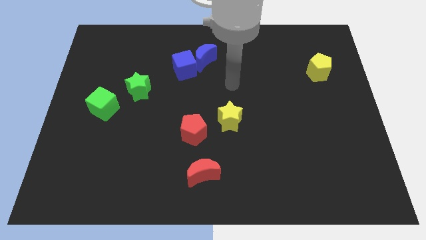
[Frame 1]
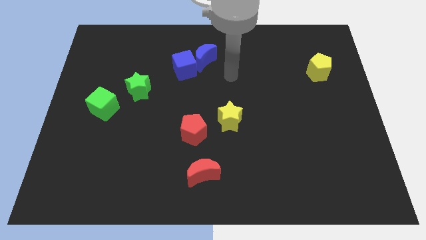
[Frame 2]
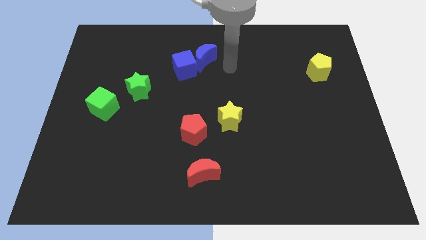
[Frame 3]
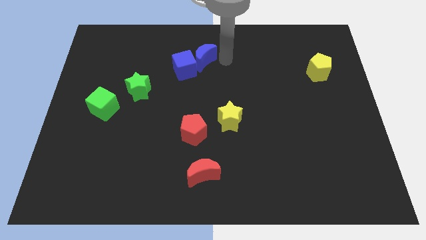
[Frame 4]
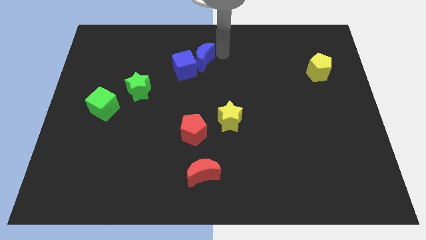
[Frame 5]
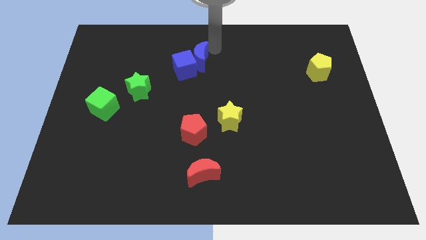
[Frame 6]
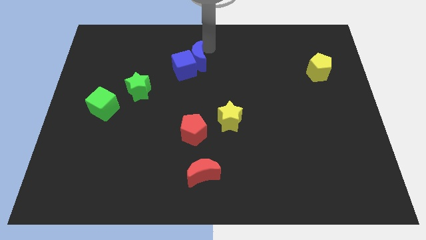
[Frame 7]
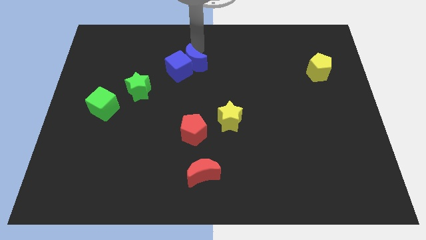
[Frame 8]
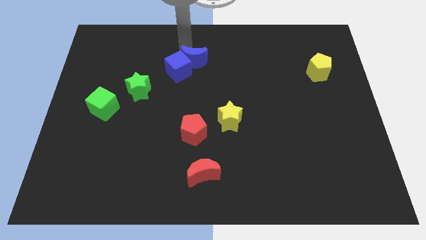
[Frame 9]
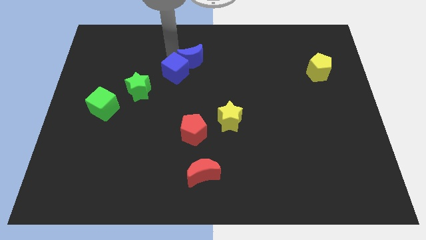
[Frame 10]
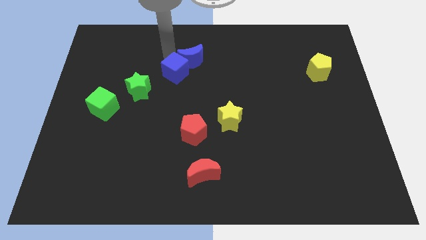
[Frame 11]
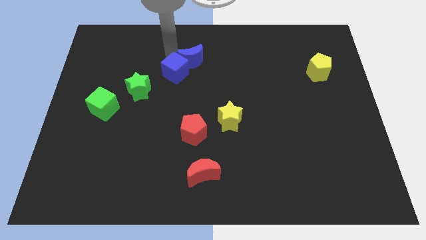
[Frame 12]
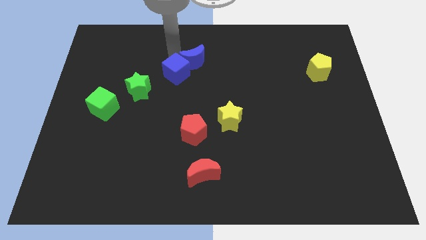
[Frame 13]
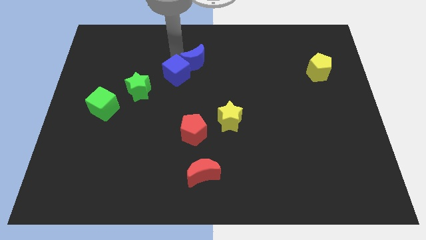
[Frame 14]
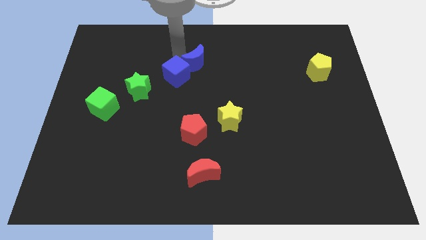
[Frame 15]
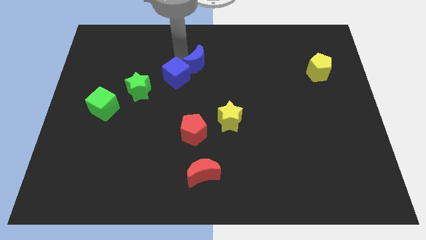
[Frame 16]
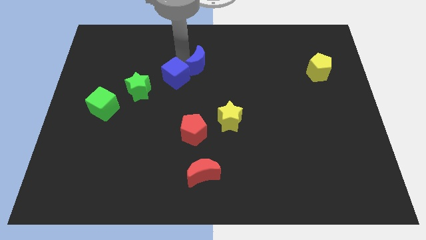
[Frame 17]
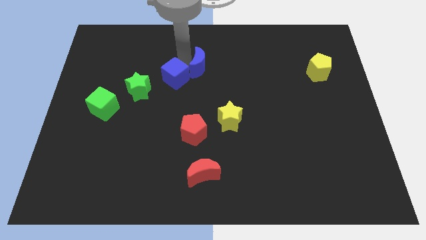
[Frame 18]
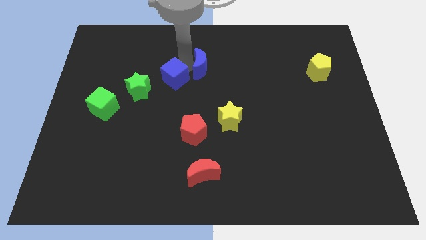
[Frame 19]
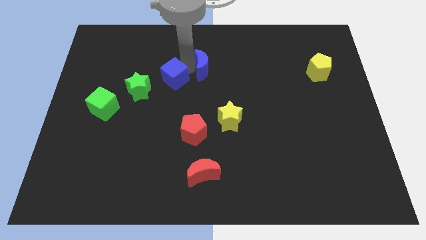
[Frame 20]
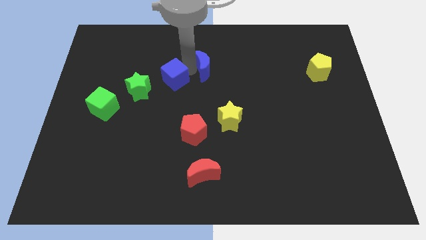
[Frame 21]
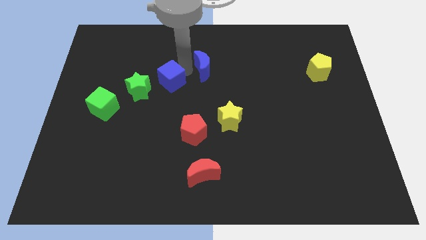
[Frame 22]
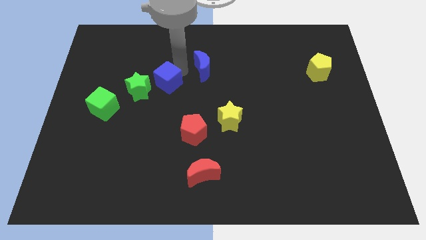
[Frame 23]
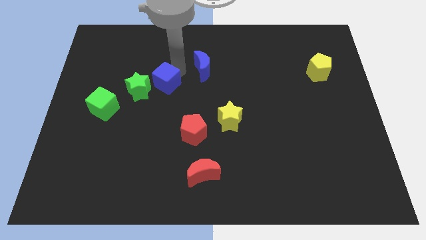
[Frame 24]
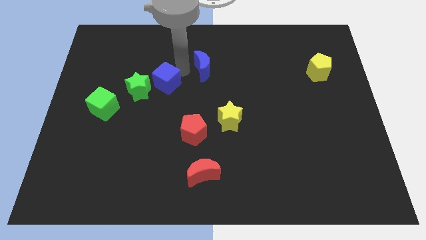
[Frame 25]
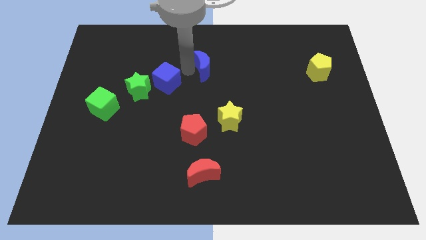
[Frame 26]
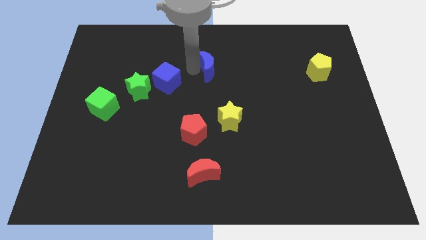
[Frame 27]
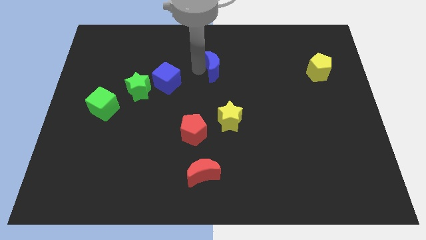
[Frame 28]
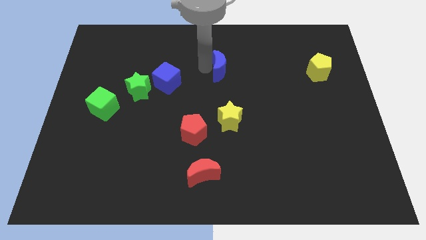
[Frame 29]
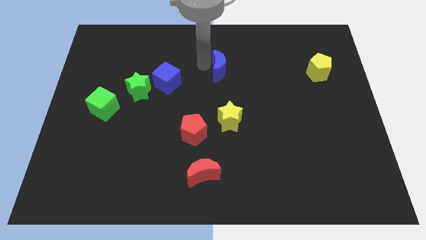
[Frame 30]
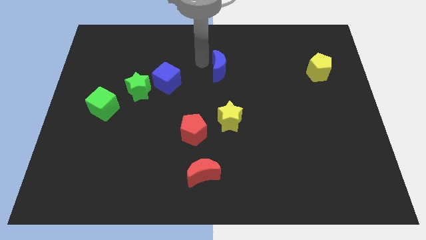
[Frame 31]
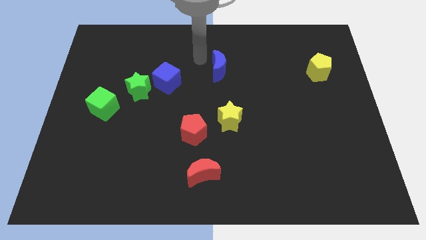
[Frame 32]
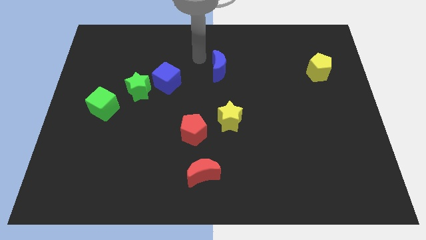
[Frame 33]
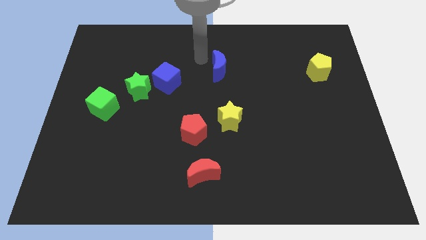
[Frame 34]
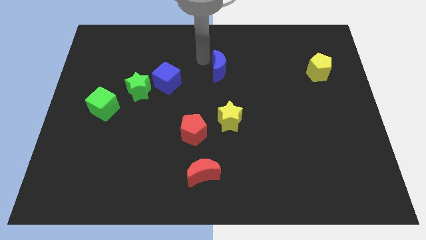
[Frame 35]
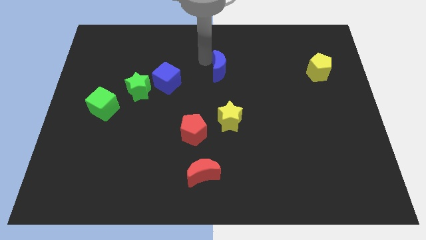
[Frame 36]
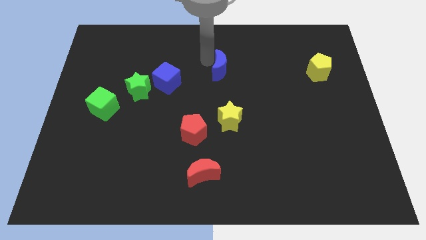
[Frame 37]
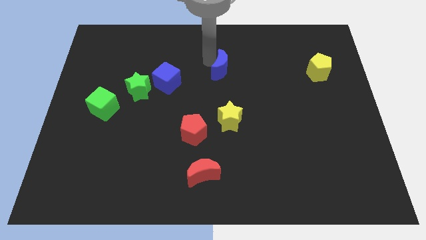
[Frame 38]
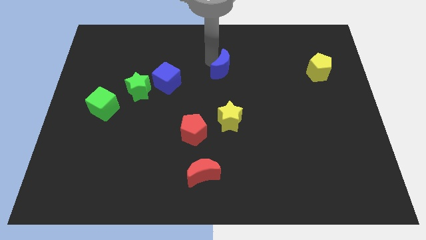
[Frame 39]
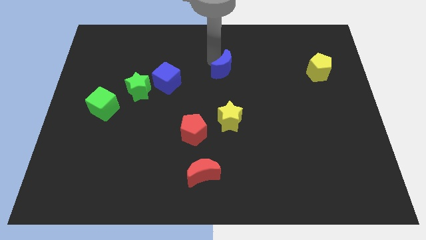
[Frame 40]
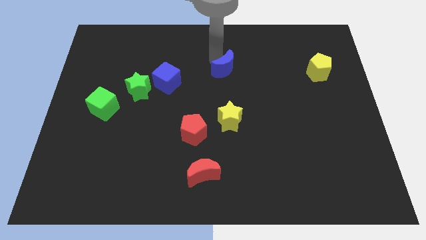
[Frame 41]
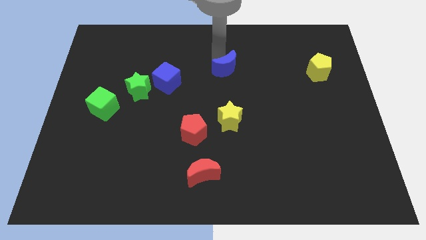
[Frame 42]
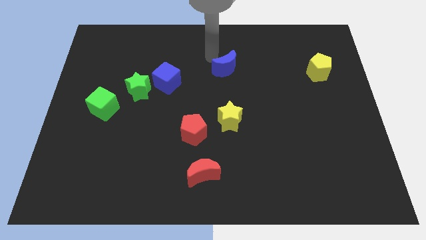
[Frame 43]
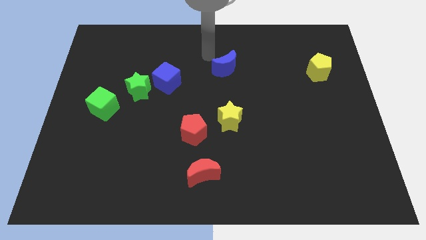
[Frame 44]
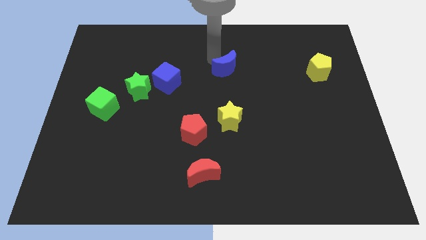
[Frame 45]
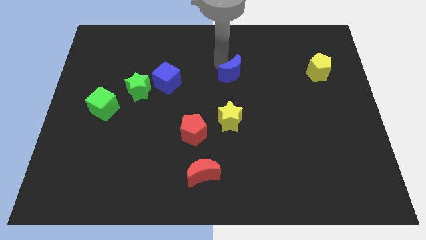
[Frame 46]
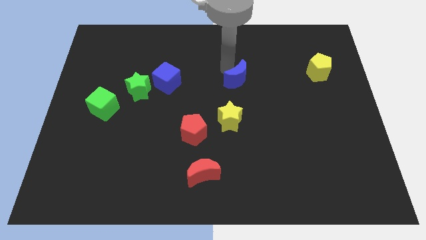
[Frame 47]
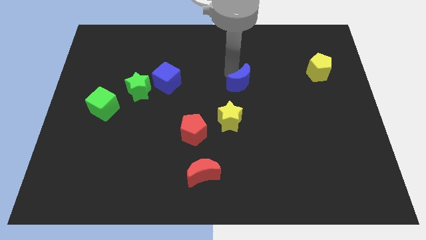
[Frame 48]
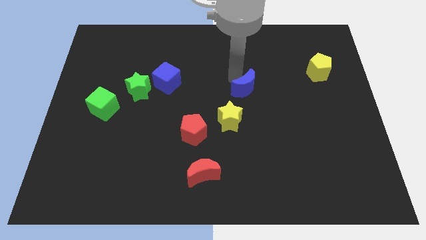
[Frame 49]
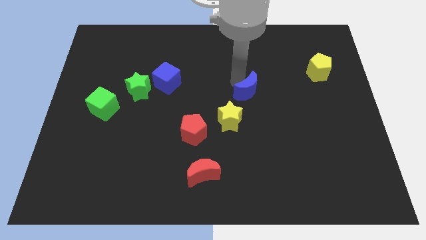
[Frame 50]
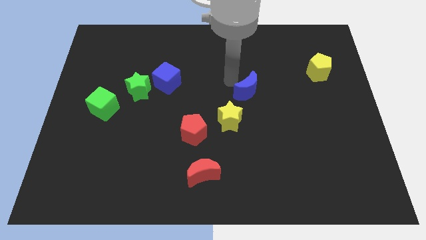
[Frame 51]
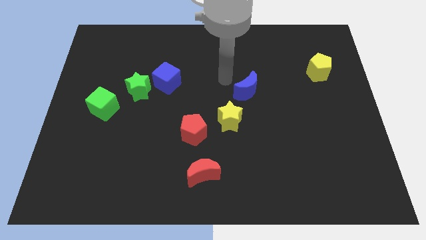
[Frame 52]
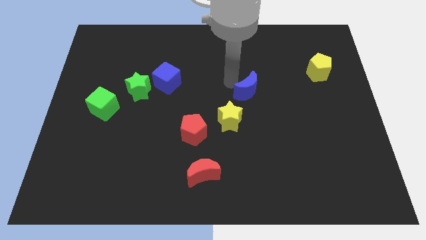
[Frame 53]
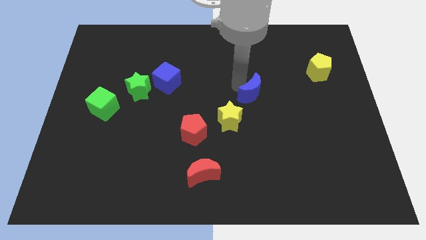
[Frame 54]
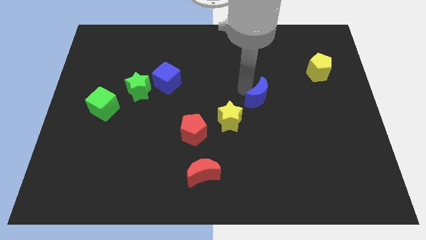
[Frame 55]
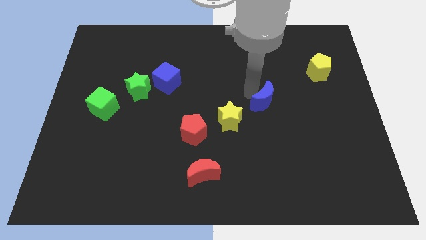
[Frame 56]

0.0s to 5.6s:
slide the blue moon down and to the right diagonally

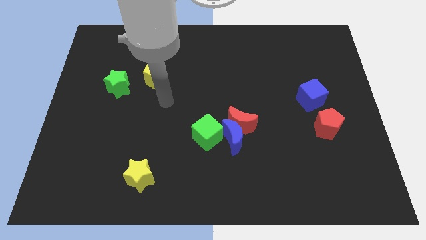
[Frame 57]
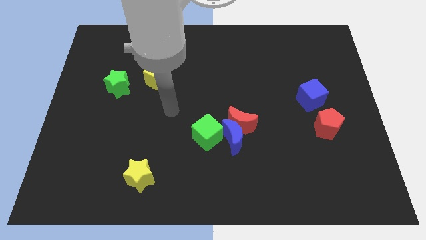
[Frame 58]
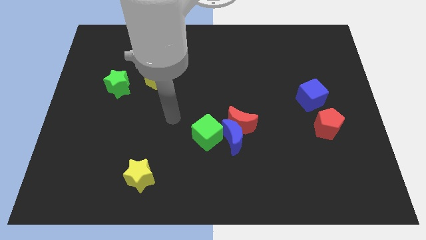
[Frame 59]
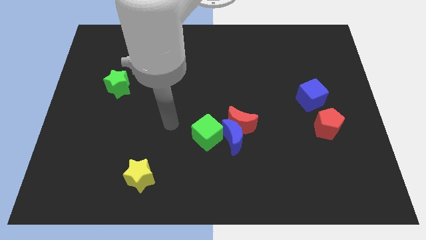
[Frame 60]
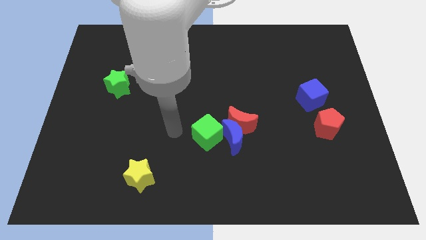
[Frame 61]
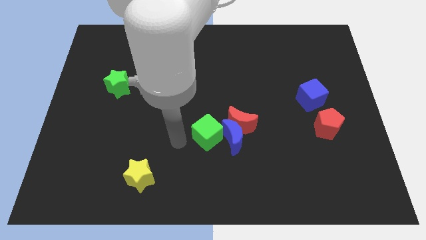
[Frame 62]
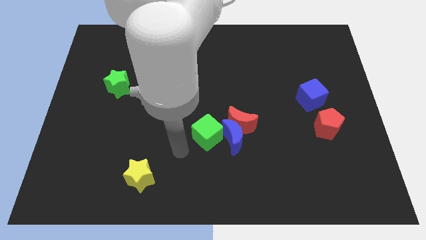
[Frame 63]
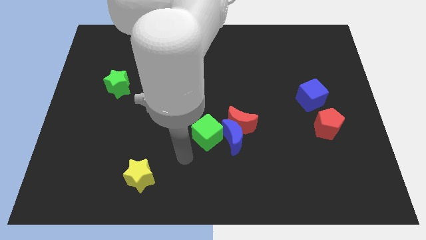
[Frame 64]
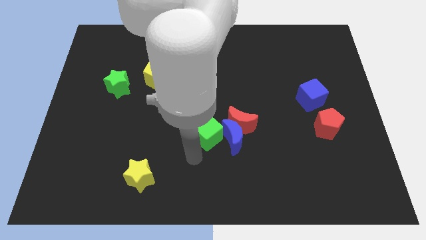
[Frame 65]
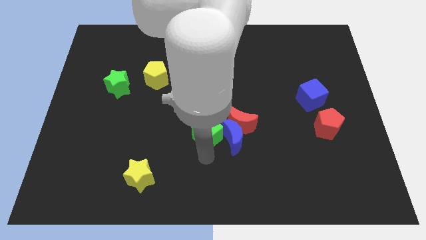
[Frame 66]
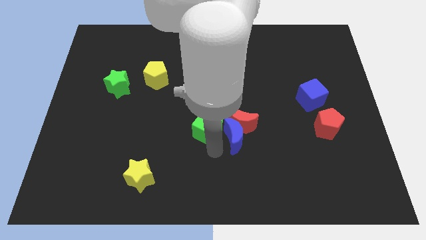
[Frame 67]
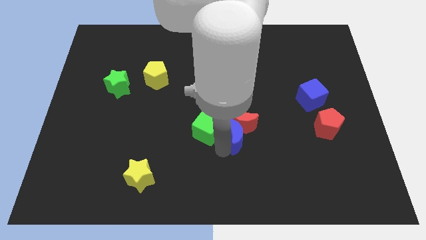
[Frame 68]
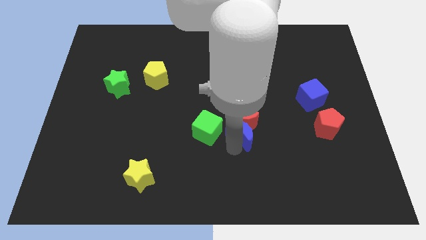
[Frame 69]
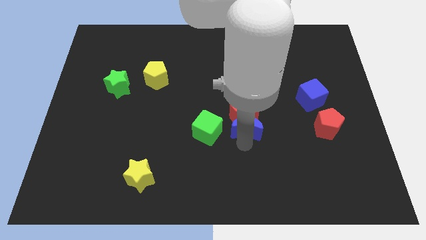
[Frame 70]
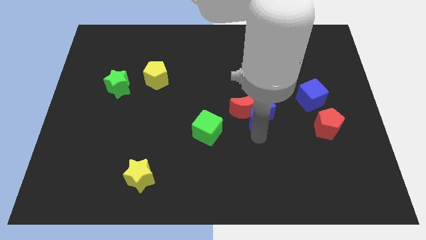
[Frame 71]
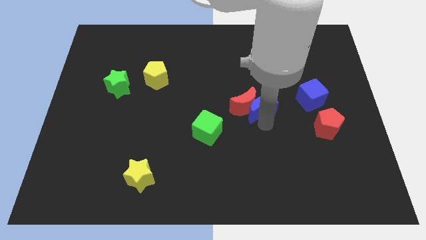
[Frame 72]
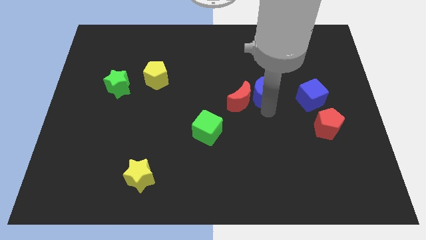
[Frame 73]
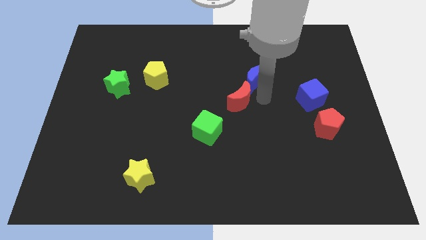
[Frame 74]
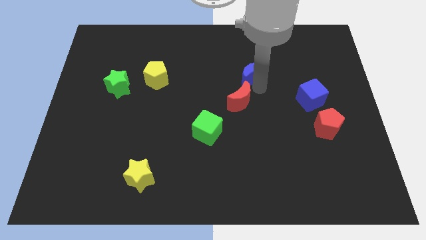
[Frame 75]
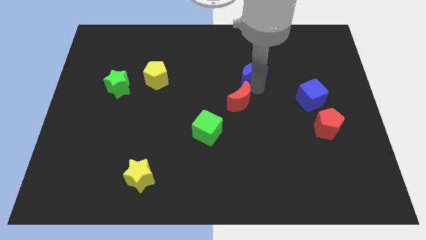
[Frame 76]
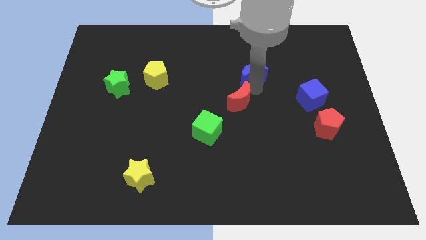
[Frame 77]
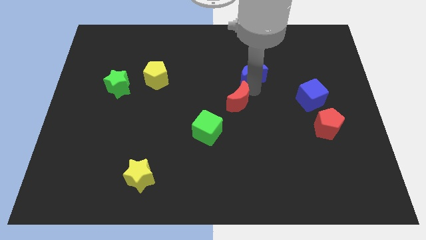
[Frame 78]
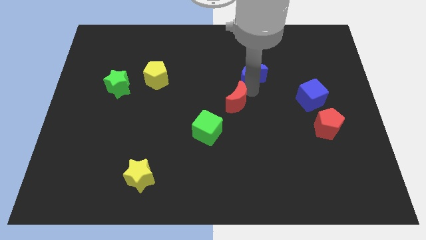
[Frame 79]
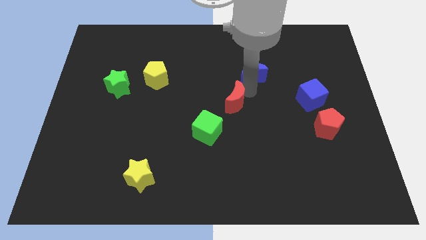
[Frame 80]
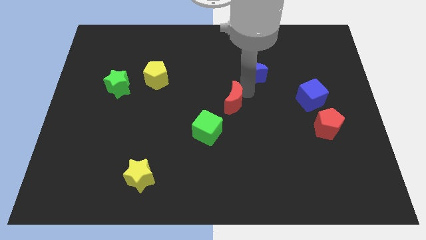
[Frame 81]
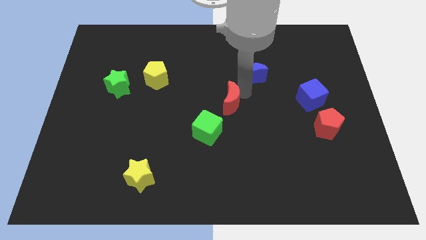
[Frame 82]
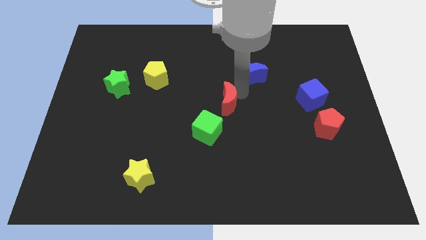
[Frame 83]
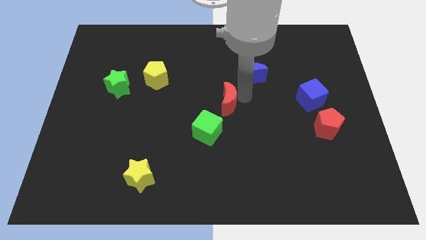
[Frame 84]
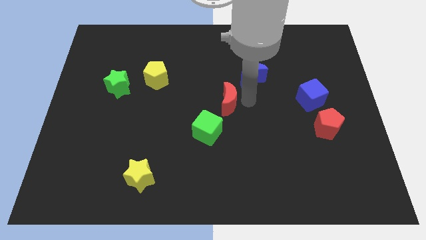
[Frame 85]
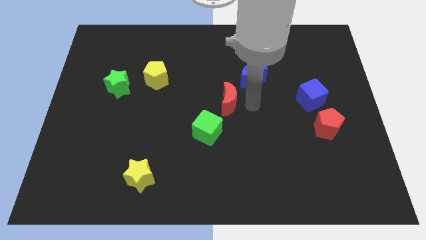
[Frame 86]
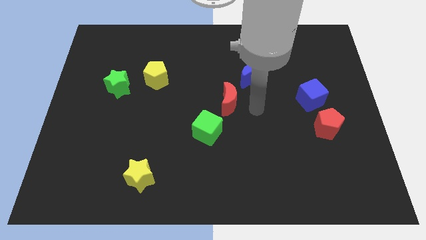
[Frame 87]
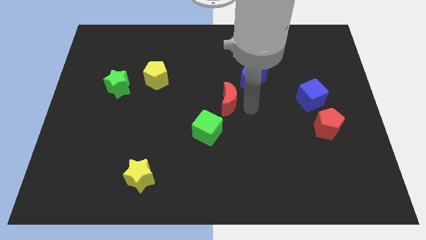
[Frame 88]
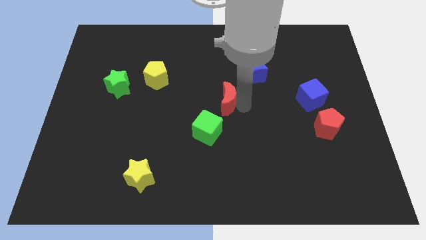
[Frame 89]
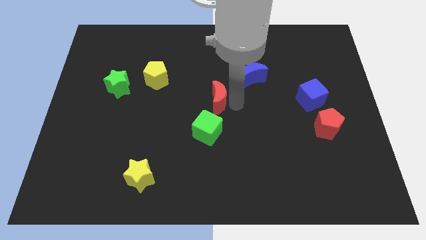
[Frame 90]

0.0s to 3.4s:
slide the red moon upwards and left diagonally slightly
